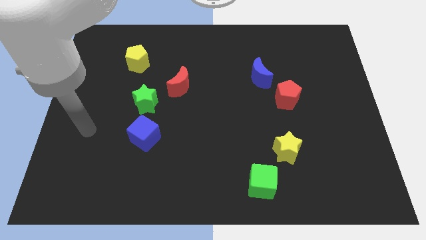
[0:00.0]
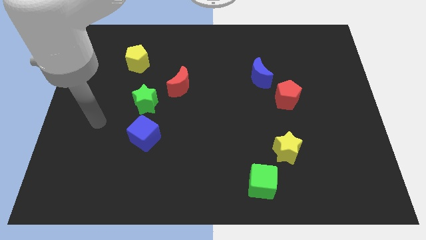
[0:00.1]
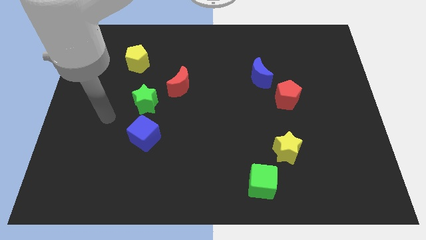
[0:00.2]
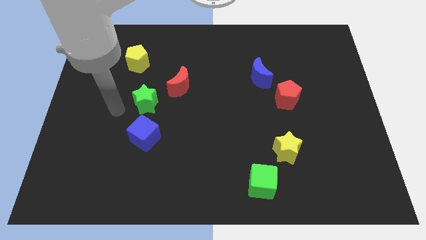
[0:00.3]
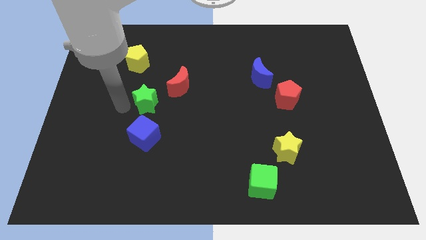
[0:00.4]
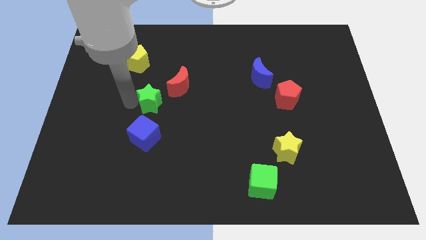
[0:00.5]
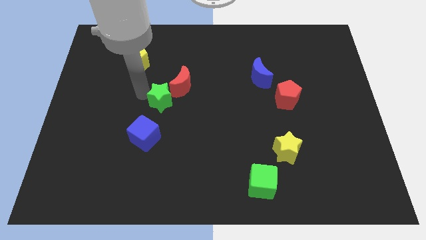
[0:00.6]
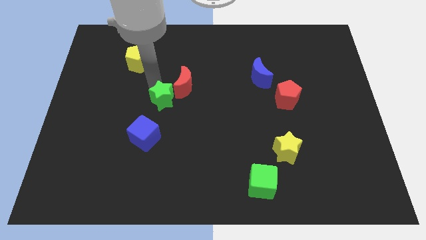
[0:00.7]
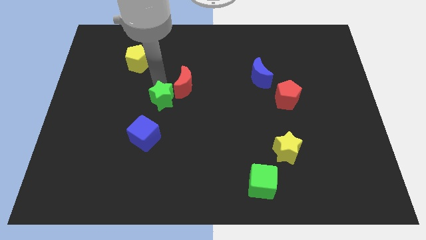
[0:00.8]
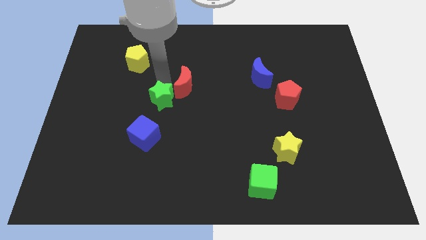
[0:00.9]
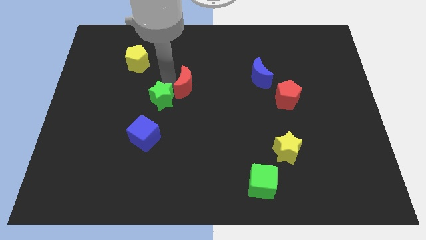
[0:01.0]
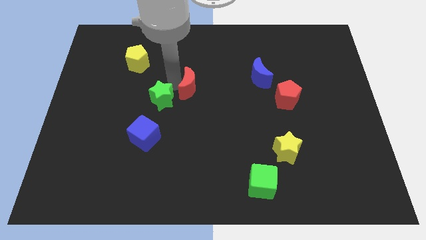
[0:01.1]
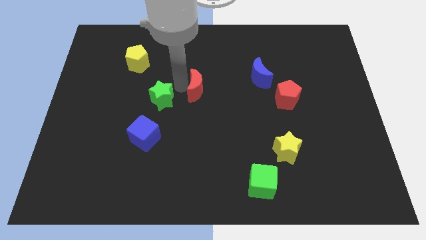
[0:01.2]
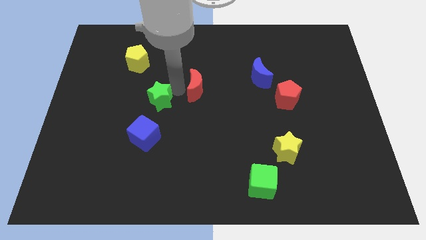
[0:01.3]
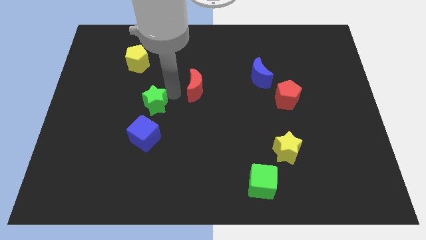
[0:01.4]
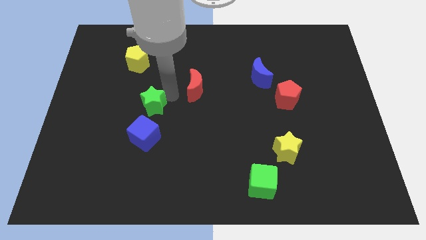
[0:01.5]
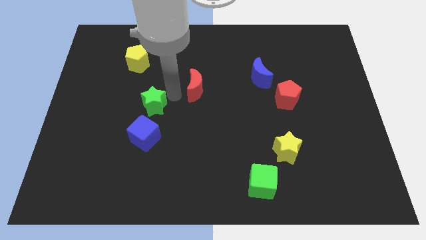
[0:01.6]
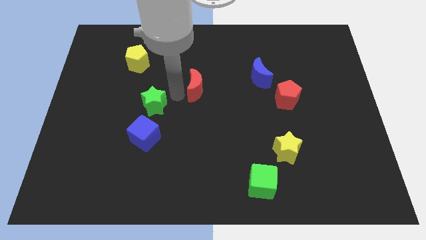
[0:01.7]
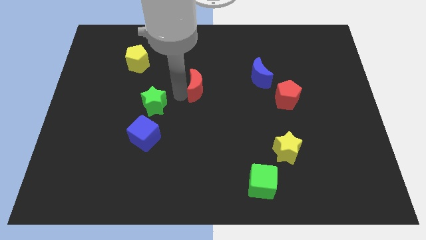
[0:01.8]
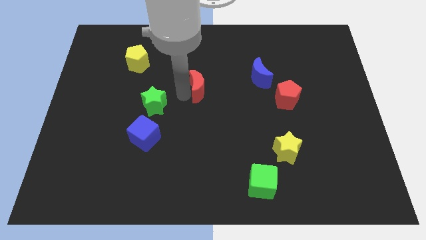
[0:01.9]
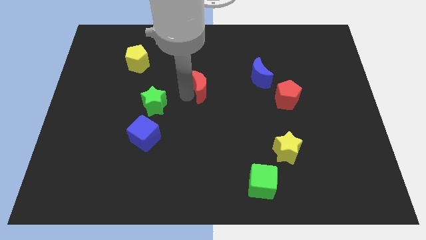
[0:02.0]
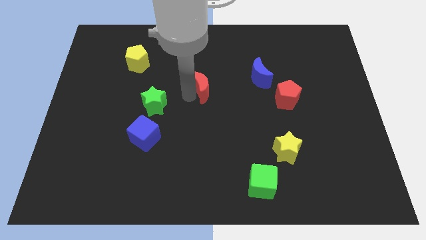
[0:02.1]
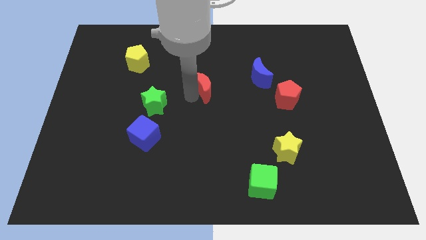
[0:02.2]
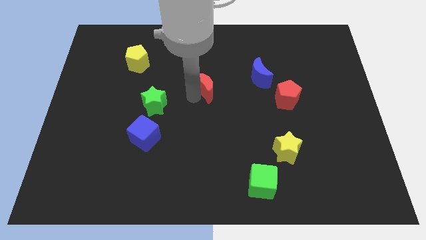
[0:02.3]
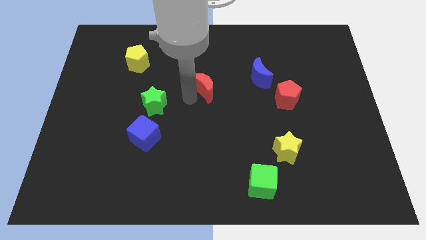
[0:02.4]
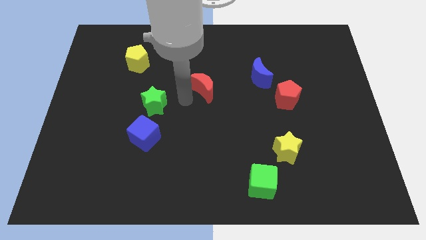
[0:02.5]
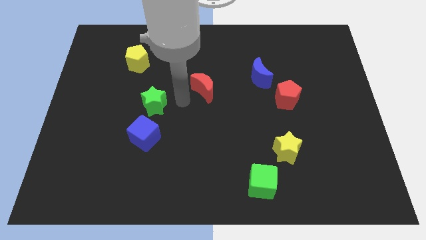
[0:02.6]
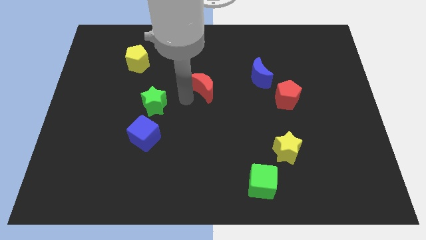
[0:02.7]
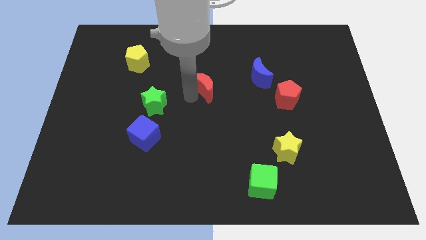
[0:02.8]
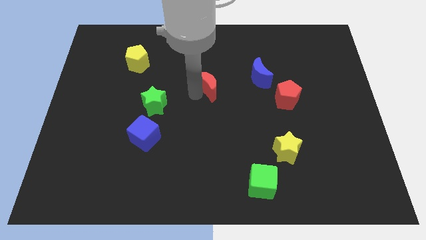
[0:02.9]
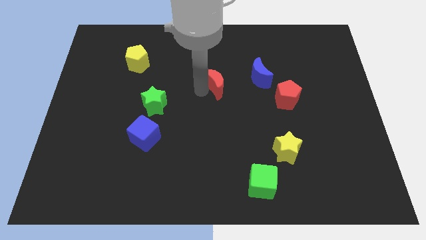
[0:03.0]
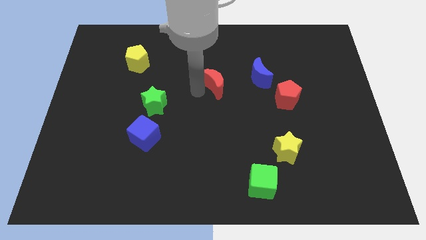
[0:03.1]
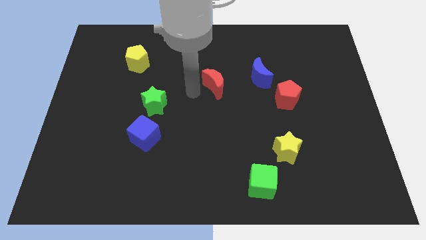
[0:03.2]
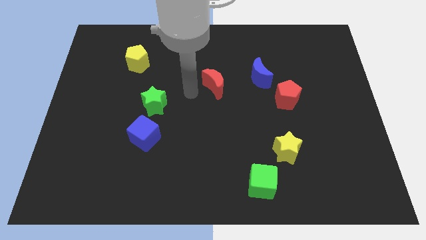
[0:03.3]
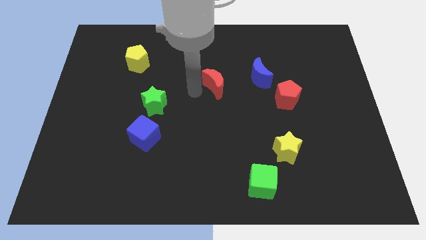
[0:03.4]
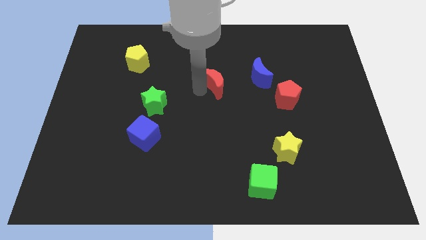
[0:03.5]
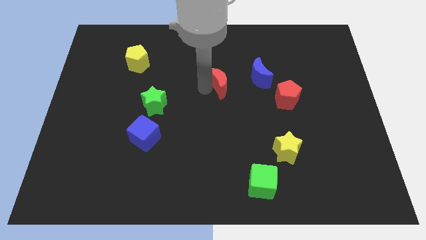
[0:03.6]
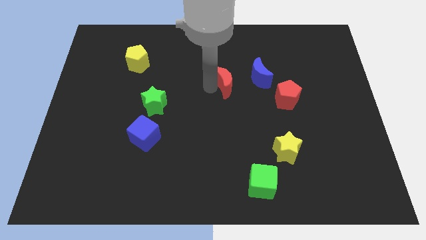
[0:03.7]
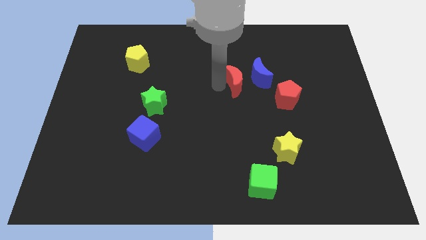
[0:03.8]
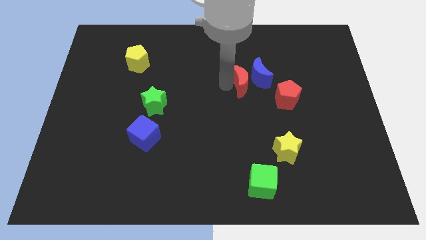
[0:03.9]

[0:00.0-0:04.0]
move the red moon towards the blue moon

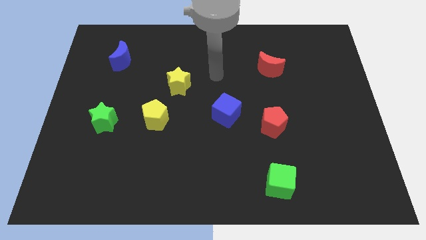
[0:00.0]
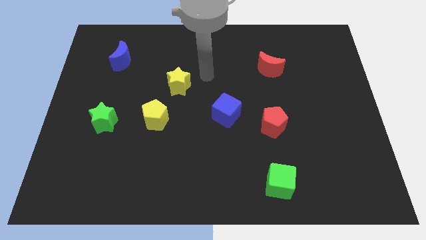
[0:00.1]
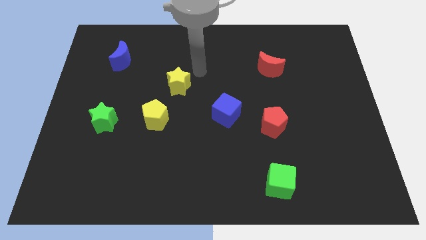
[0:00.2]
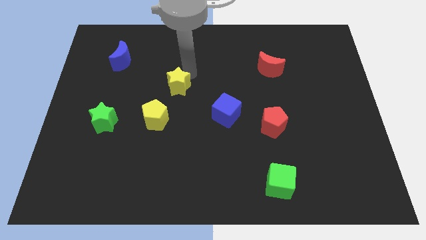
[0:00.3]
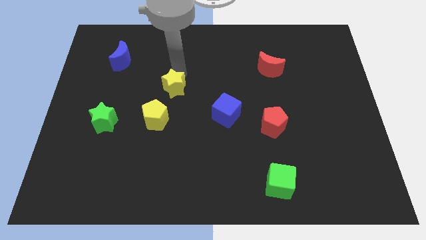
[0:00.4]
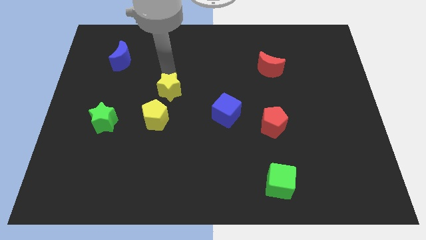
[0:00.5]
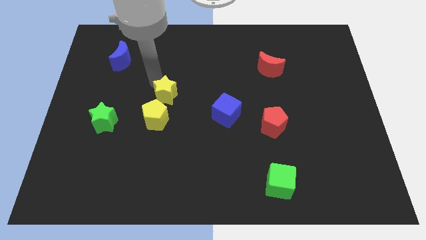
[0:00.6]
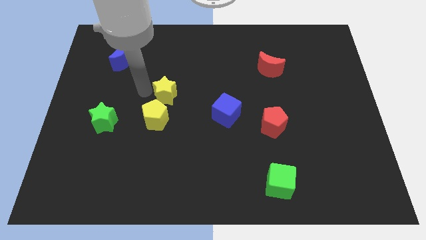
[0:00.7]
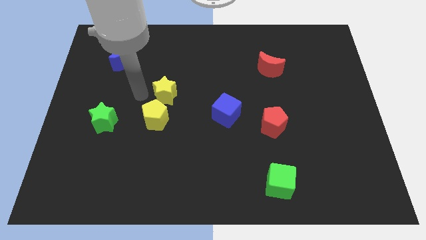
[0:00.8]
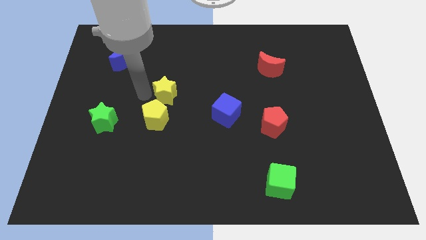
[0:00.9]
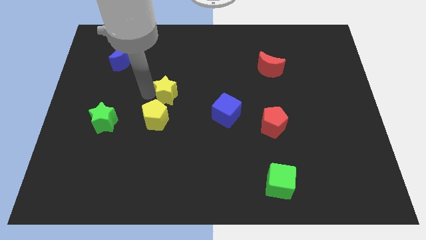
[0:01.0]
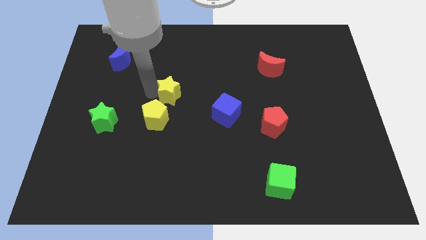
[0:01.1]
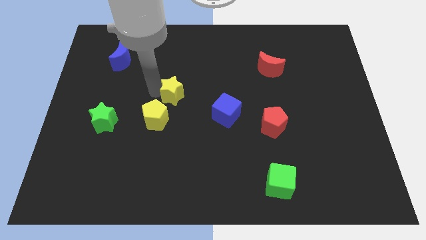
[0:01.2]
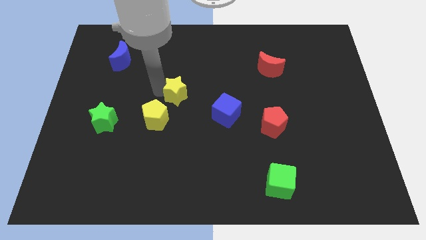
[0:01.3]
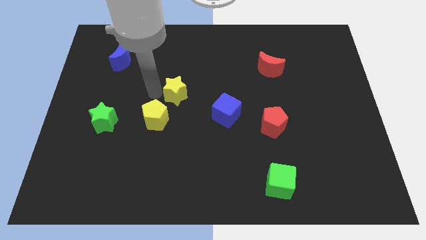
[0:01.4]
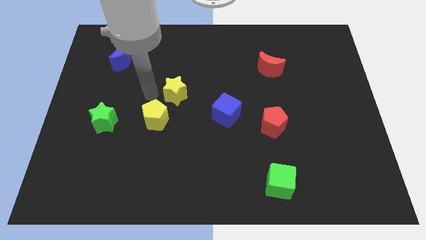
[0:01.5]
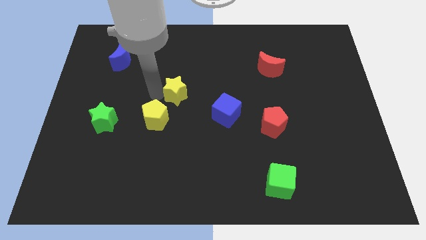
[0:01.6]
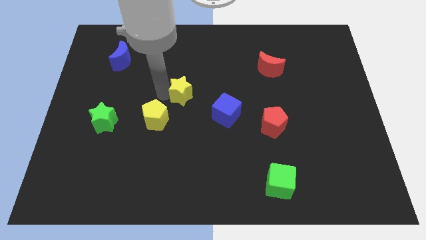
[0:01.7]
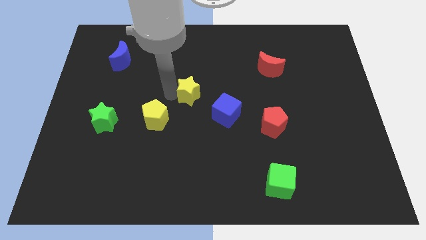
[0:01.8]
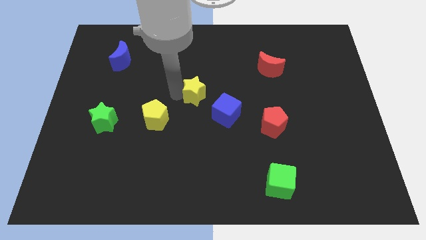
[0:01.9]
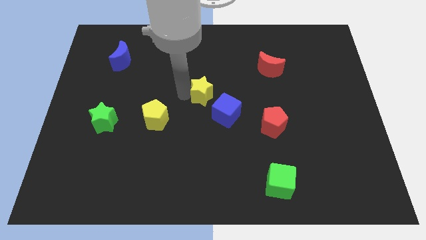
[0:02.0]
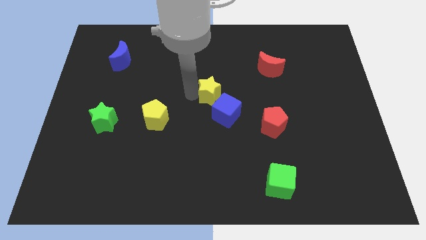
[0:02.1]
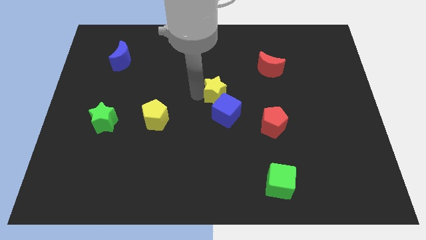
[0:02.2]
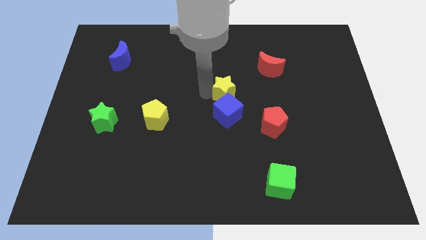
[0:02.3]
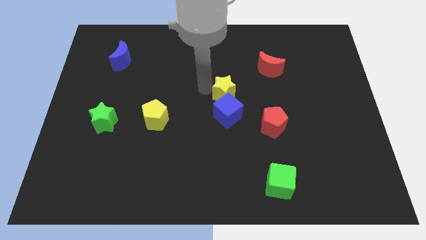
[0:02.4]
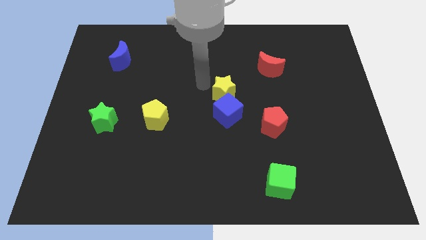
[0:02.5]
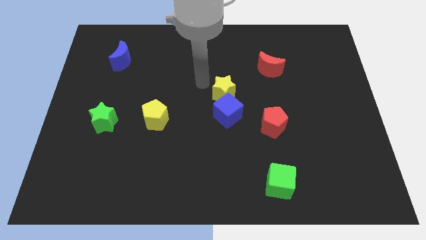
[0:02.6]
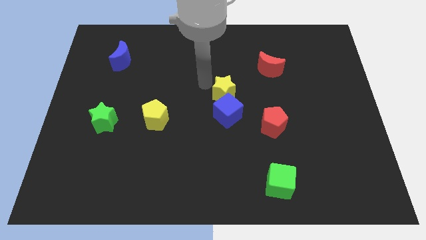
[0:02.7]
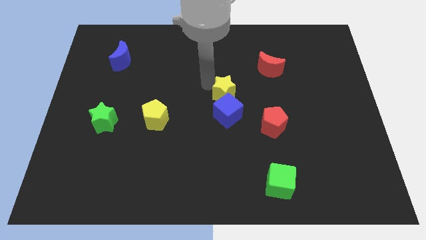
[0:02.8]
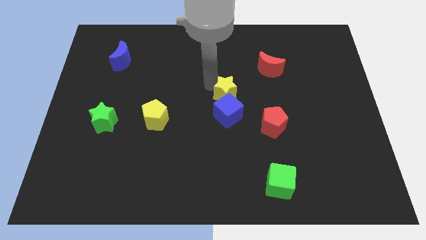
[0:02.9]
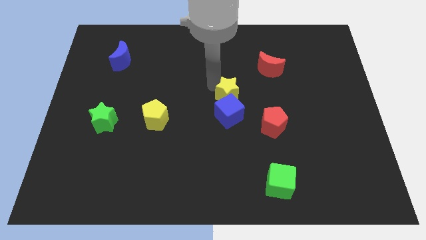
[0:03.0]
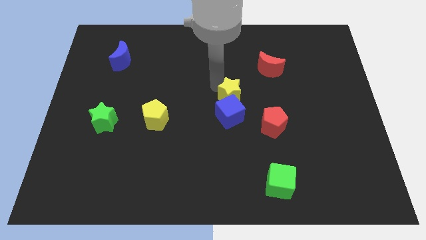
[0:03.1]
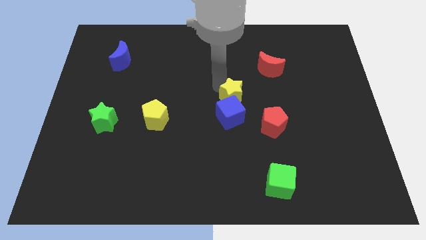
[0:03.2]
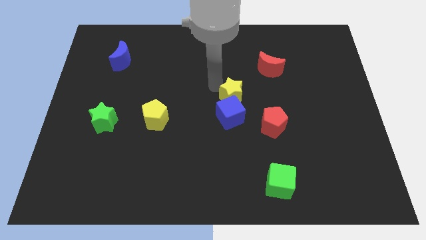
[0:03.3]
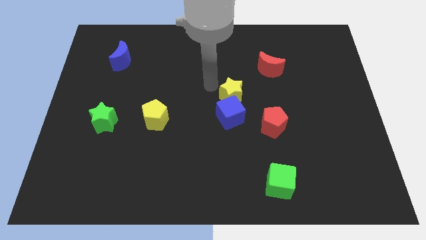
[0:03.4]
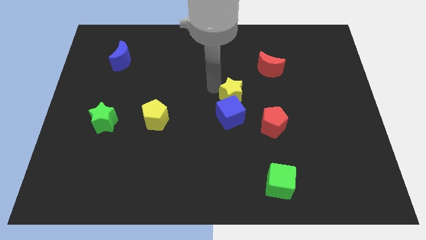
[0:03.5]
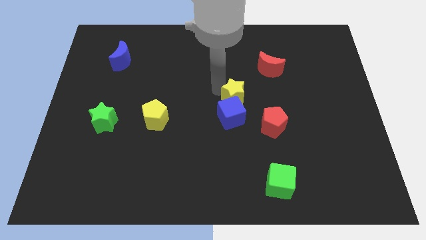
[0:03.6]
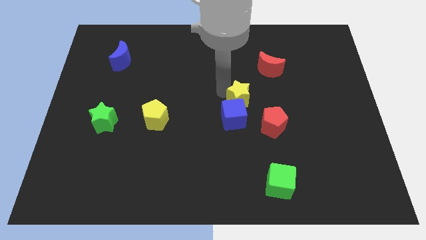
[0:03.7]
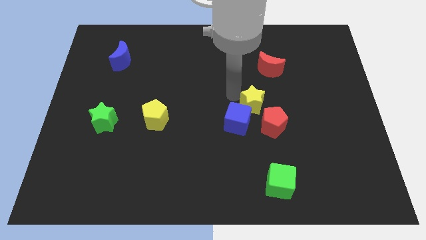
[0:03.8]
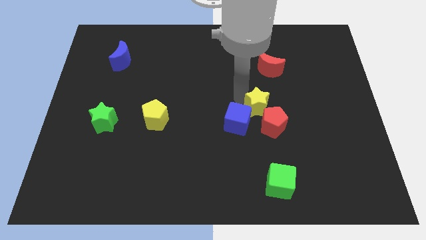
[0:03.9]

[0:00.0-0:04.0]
slide the yellow star towards the red pentagon
